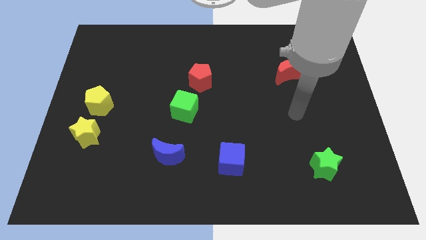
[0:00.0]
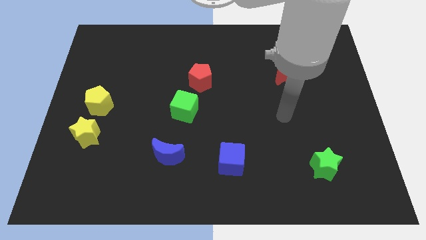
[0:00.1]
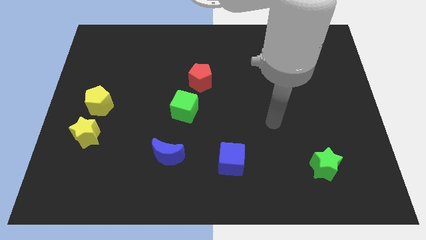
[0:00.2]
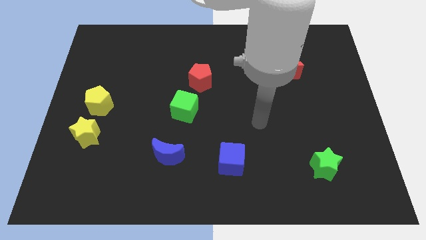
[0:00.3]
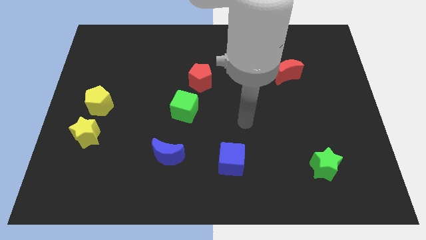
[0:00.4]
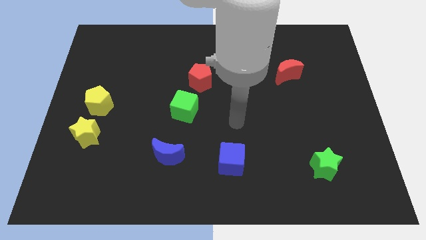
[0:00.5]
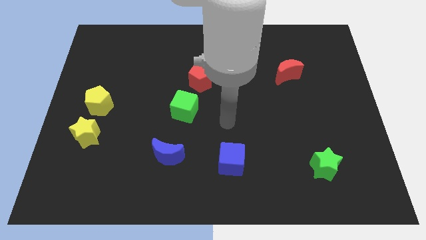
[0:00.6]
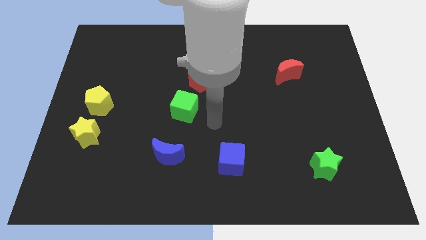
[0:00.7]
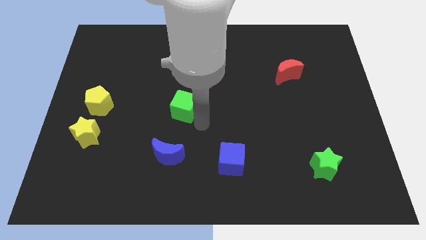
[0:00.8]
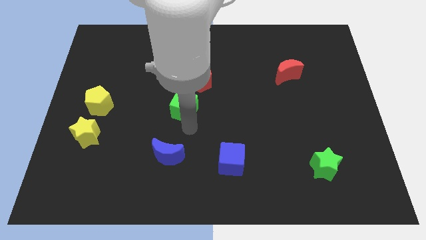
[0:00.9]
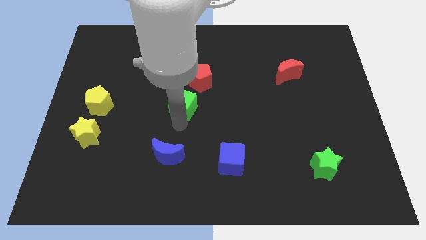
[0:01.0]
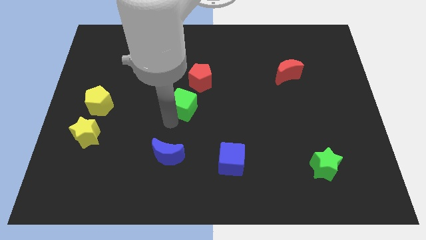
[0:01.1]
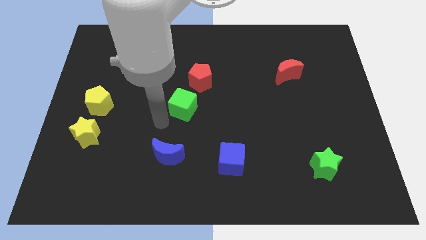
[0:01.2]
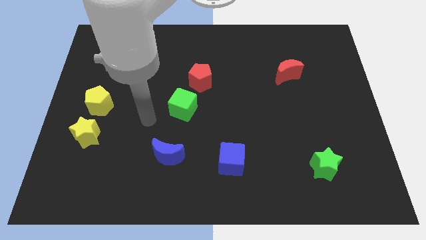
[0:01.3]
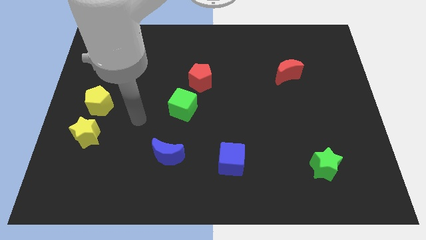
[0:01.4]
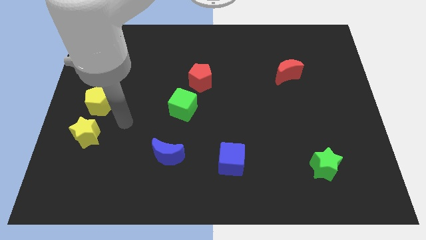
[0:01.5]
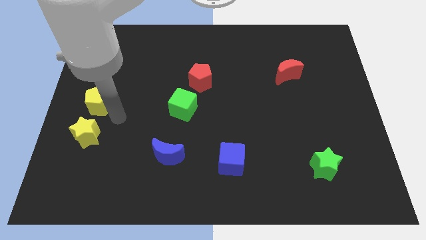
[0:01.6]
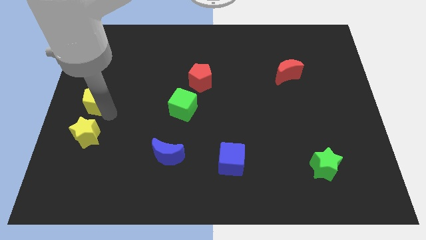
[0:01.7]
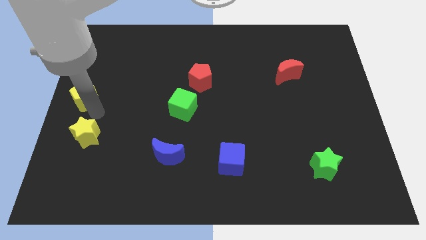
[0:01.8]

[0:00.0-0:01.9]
pull the yellow star apart from the yellow pentagon

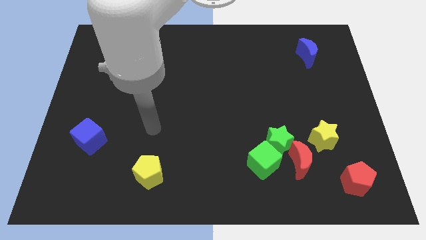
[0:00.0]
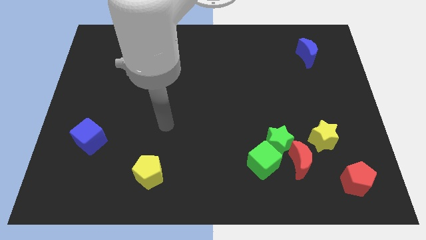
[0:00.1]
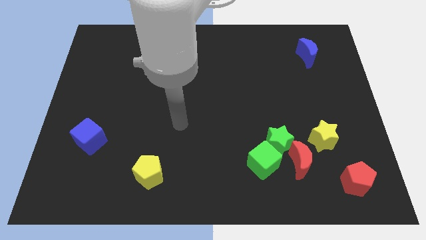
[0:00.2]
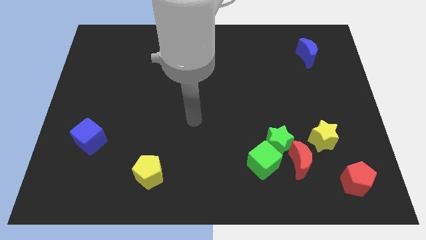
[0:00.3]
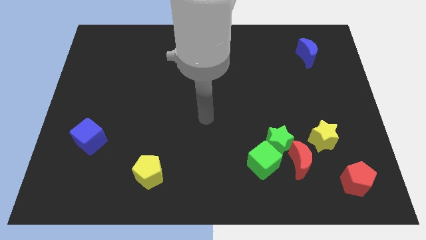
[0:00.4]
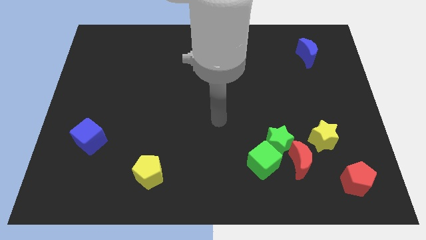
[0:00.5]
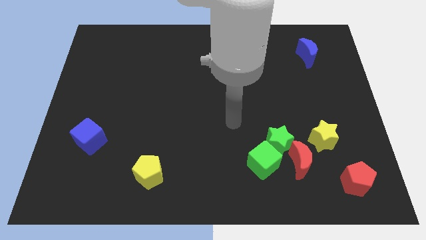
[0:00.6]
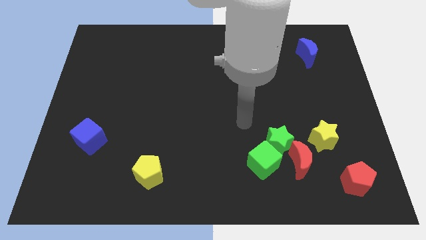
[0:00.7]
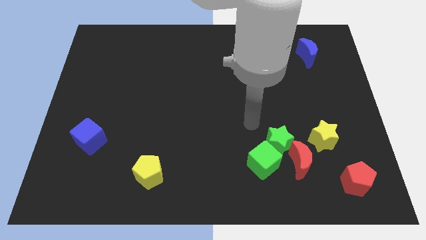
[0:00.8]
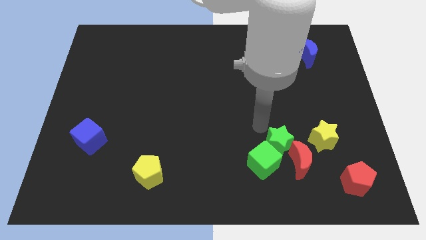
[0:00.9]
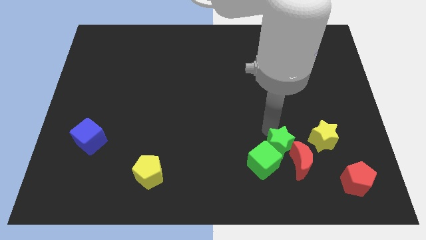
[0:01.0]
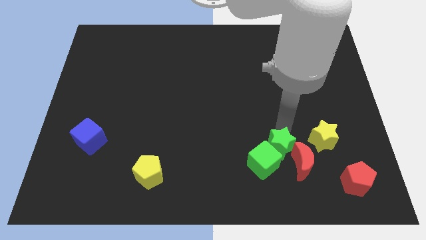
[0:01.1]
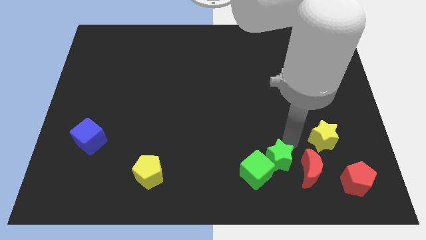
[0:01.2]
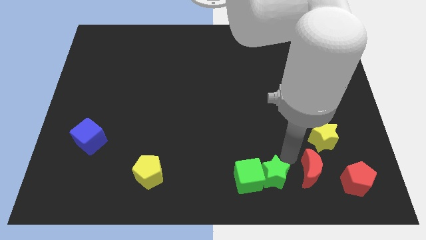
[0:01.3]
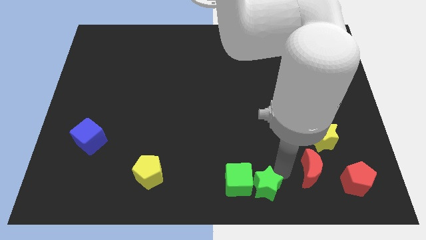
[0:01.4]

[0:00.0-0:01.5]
move the green cube away from the green star and red moon

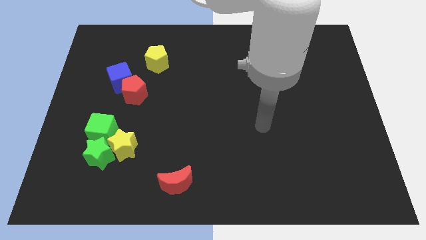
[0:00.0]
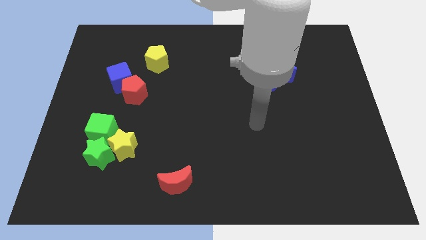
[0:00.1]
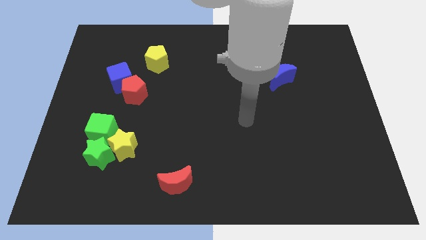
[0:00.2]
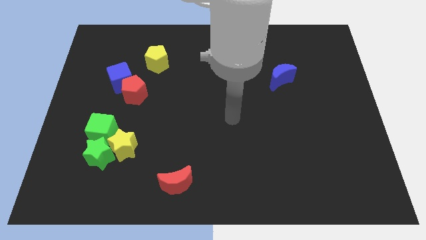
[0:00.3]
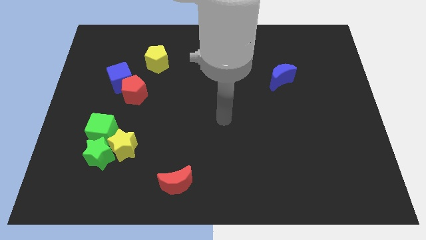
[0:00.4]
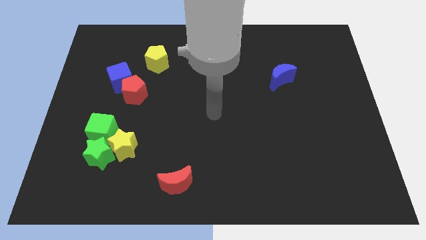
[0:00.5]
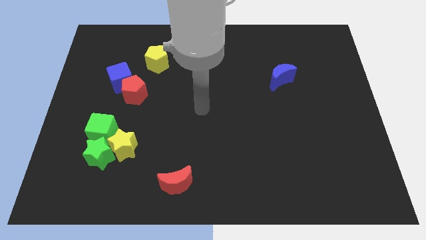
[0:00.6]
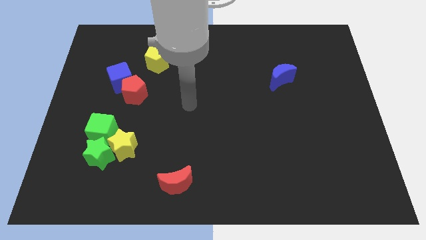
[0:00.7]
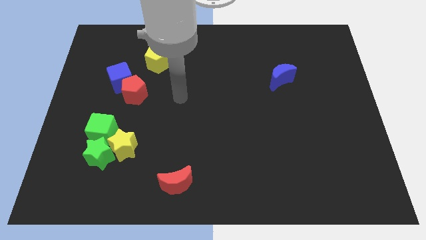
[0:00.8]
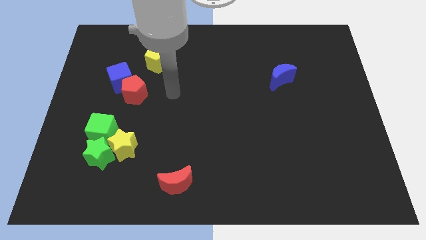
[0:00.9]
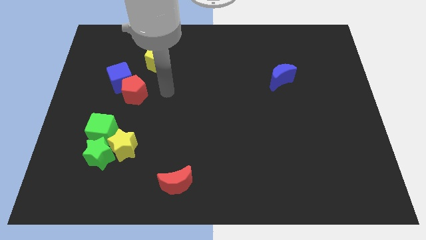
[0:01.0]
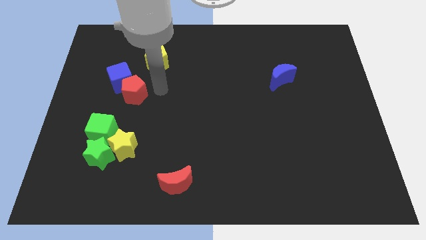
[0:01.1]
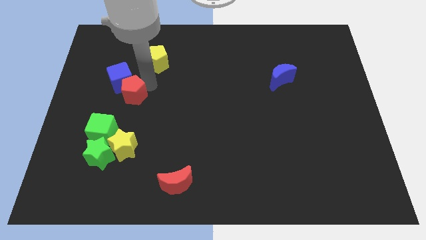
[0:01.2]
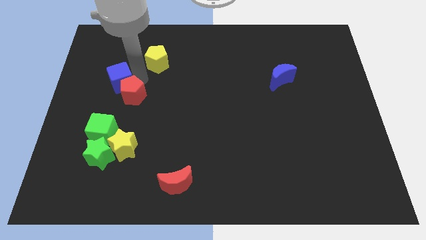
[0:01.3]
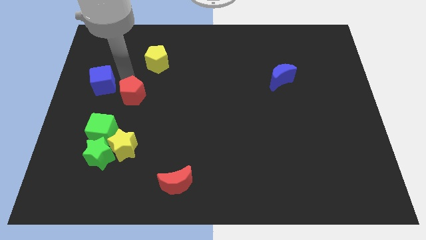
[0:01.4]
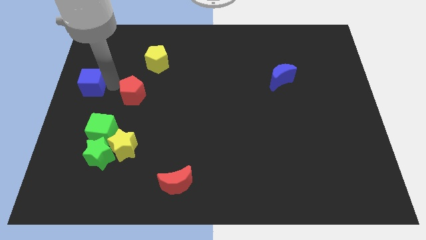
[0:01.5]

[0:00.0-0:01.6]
move the red pentagon away from the blue cube

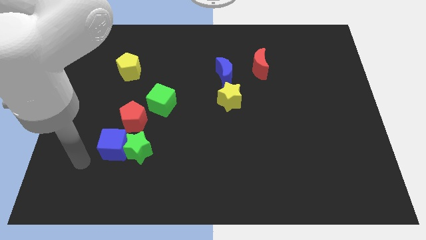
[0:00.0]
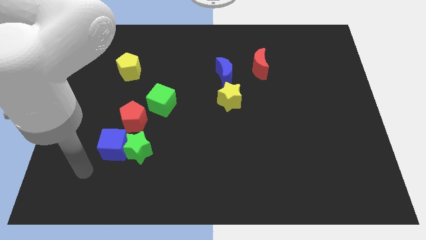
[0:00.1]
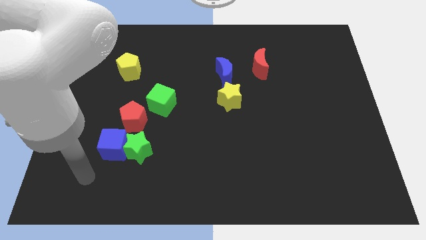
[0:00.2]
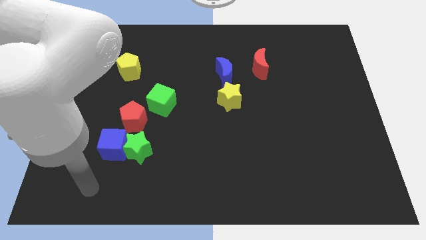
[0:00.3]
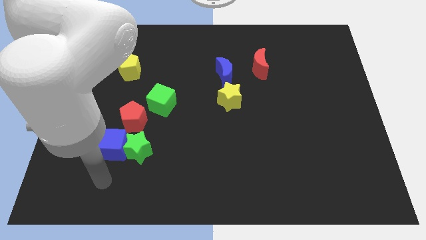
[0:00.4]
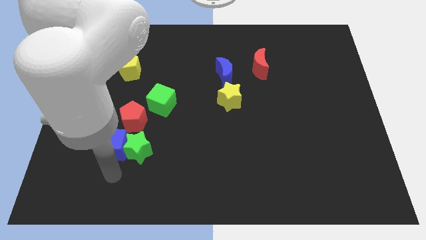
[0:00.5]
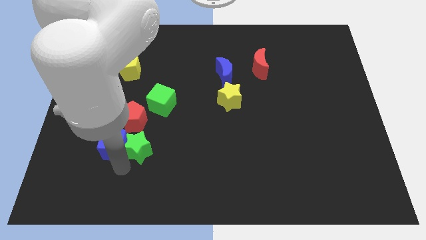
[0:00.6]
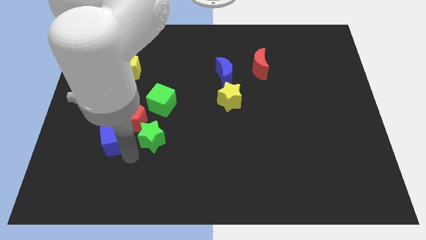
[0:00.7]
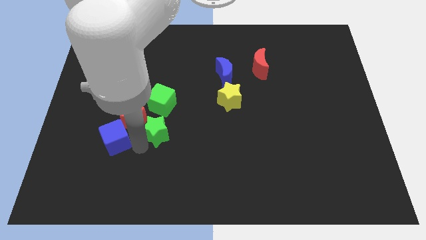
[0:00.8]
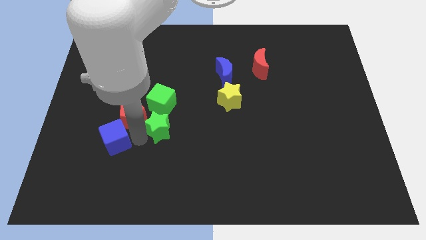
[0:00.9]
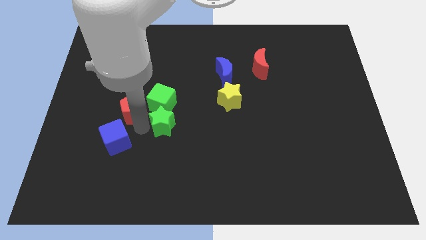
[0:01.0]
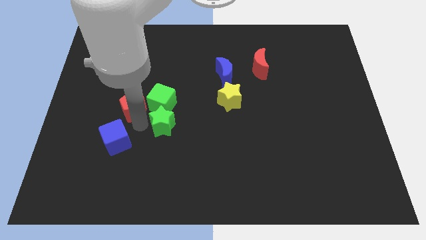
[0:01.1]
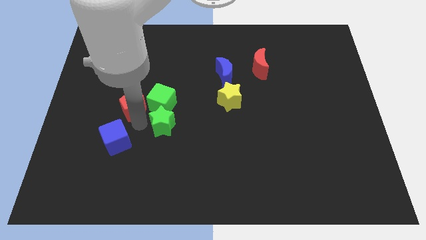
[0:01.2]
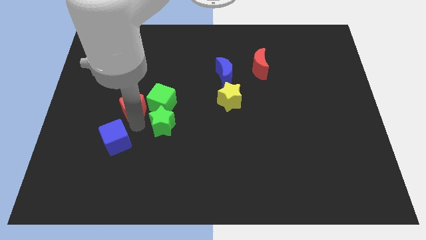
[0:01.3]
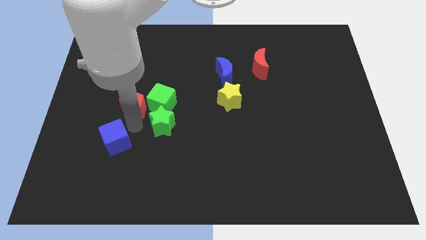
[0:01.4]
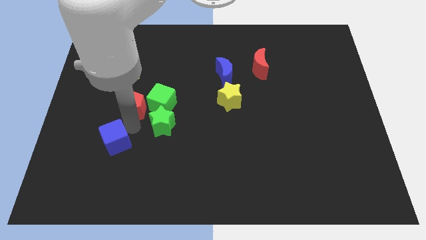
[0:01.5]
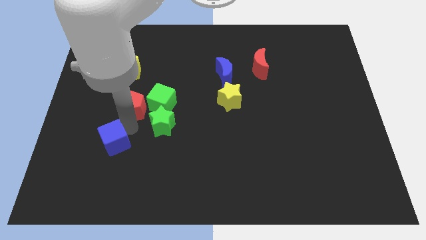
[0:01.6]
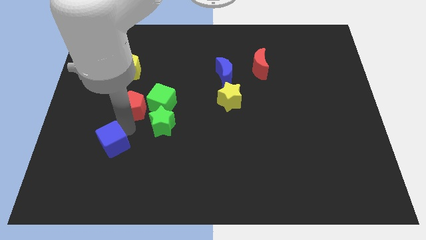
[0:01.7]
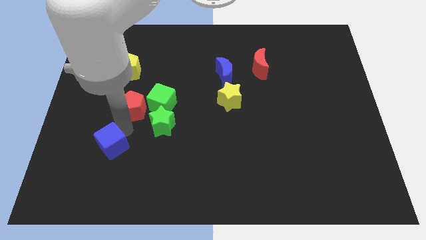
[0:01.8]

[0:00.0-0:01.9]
pull the blue cube apart from the green star and red pentagon

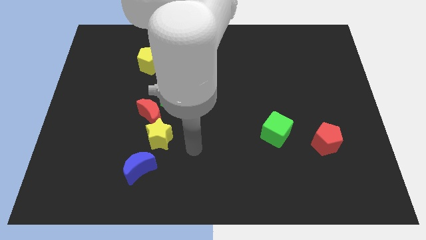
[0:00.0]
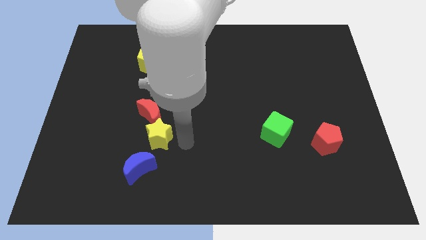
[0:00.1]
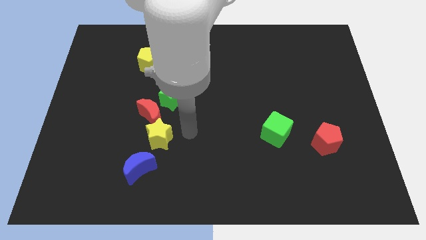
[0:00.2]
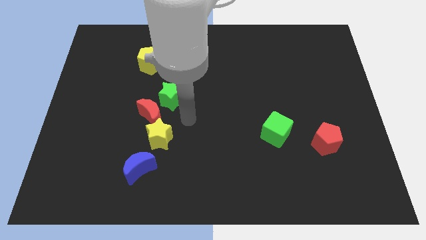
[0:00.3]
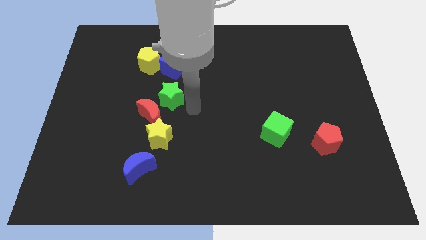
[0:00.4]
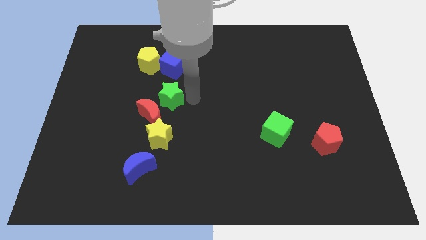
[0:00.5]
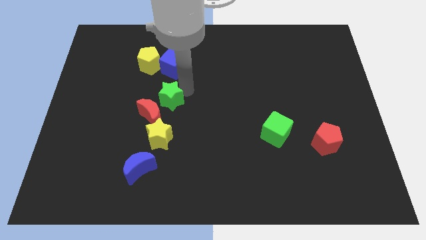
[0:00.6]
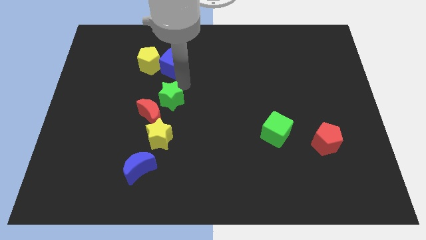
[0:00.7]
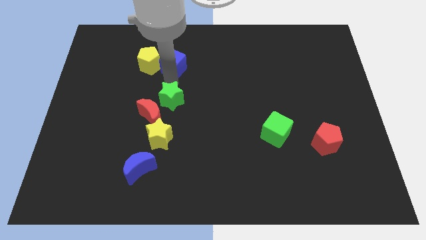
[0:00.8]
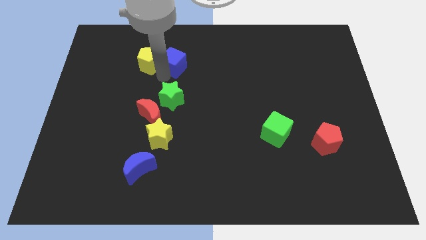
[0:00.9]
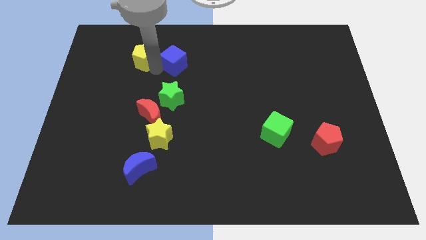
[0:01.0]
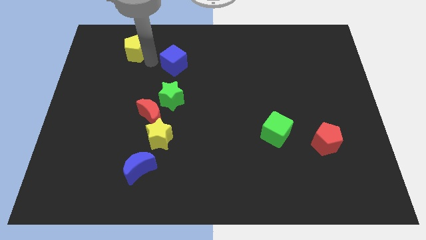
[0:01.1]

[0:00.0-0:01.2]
separate the blue cube from the yellow pentagon

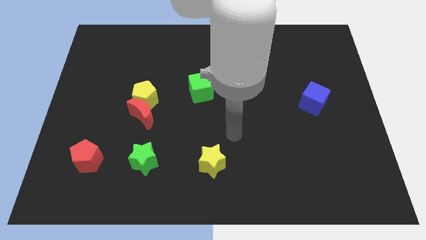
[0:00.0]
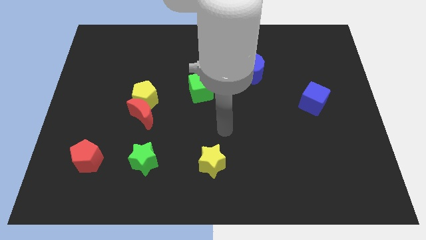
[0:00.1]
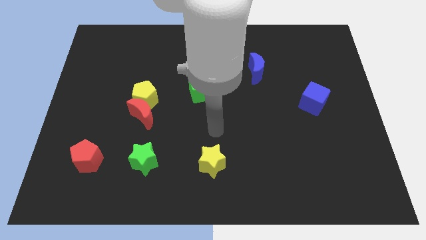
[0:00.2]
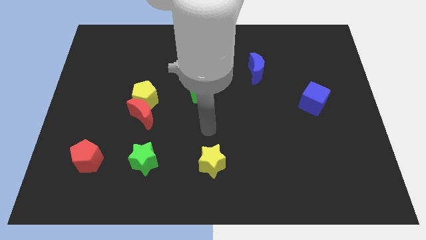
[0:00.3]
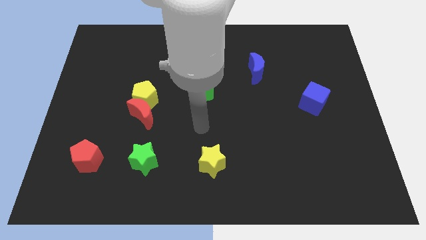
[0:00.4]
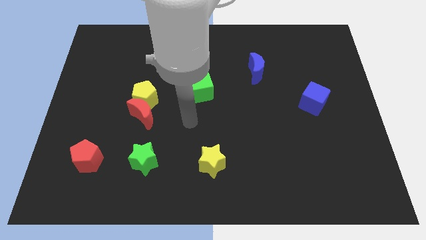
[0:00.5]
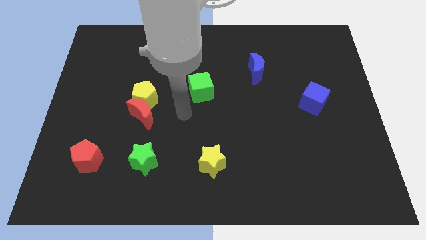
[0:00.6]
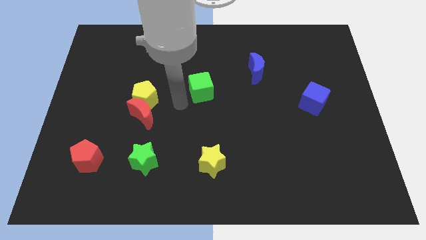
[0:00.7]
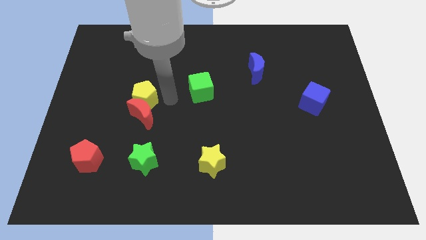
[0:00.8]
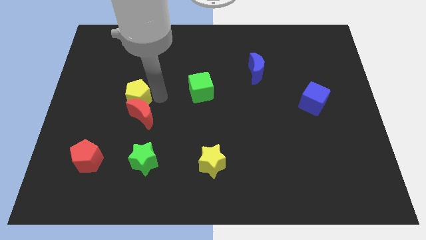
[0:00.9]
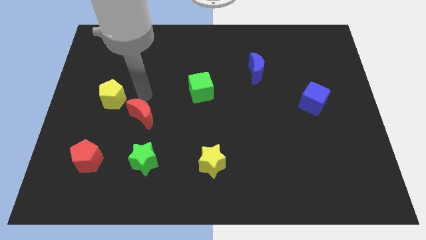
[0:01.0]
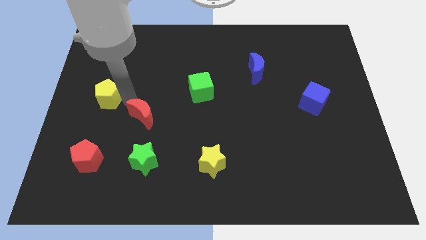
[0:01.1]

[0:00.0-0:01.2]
separate the red moon from the yellow pentagon
